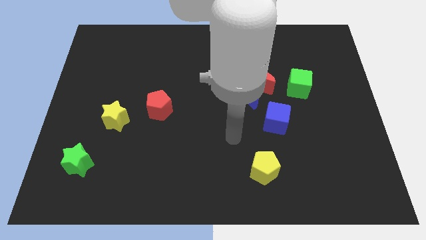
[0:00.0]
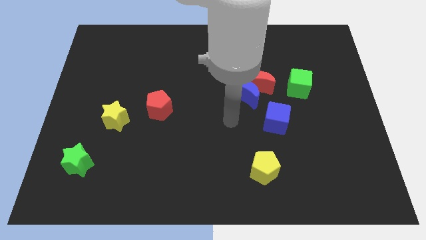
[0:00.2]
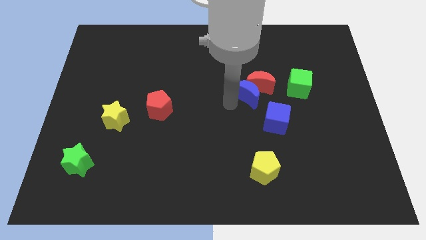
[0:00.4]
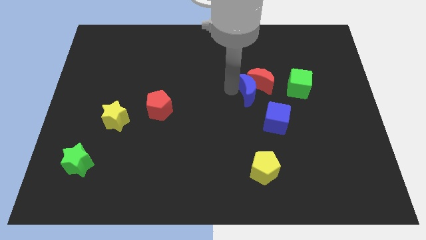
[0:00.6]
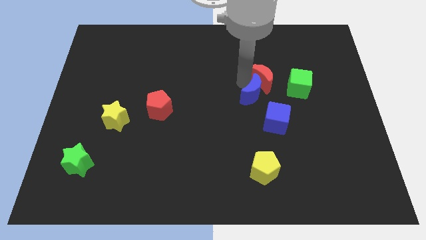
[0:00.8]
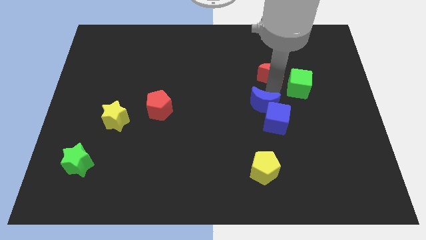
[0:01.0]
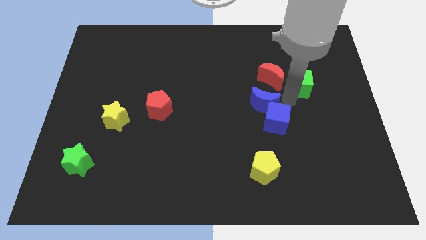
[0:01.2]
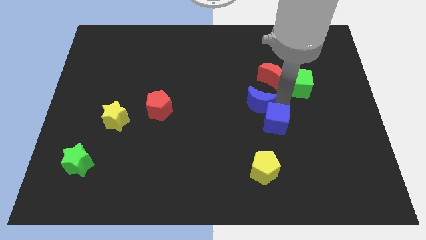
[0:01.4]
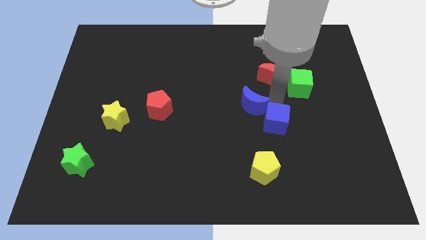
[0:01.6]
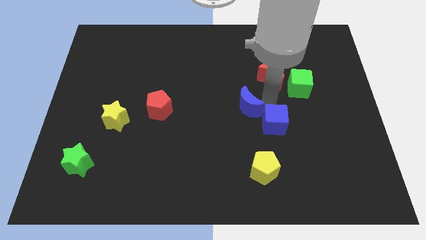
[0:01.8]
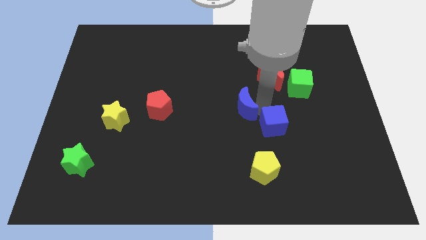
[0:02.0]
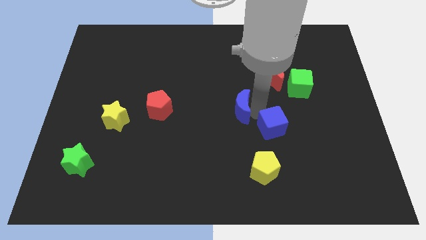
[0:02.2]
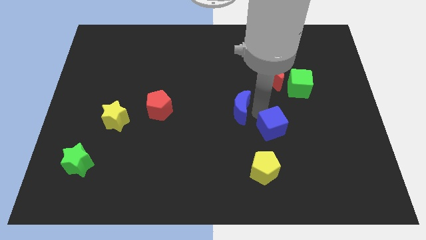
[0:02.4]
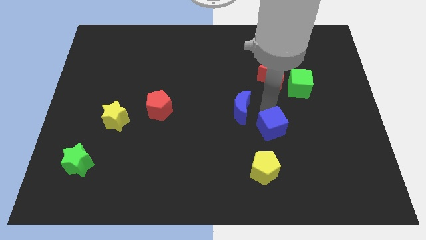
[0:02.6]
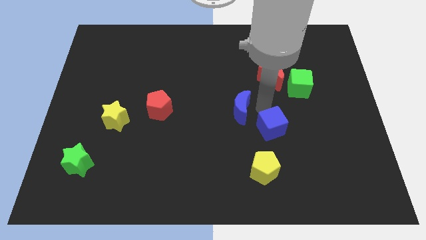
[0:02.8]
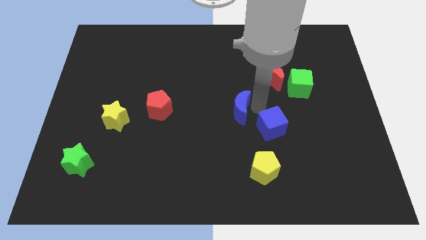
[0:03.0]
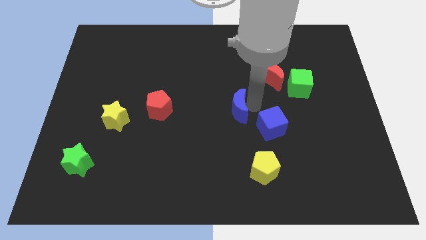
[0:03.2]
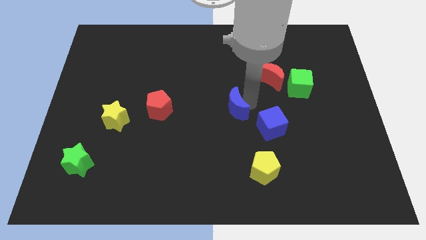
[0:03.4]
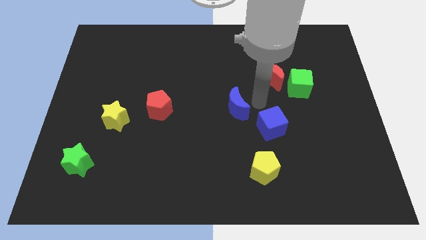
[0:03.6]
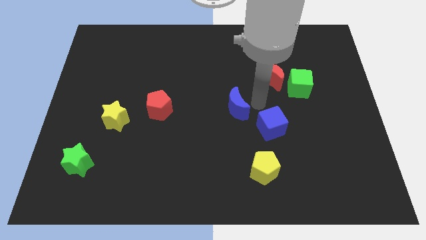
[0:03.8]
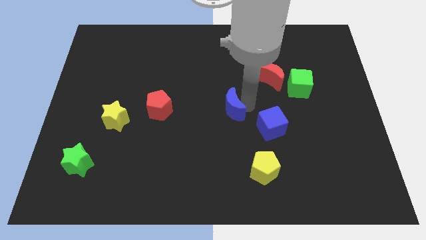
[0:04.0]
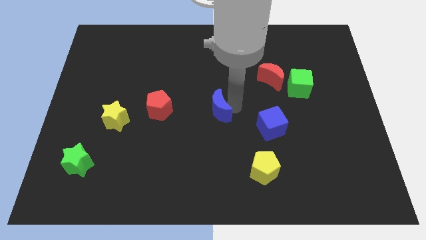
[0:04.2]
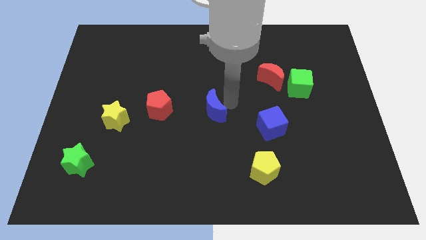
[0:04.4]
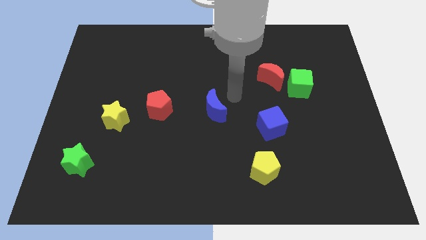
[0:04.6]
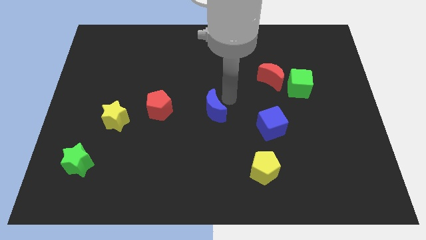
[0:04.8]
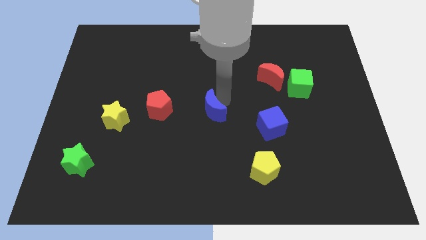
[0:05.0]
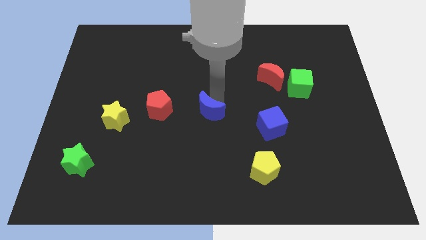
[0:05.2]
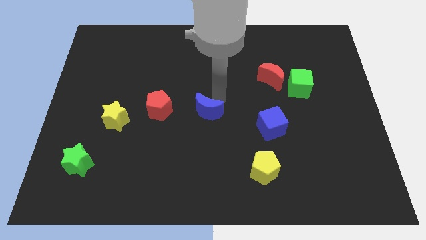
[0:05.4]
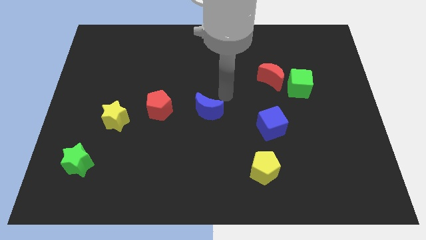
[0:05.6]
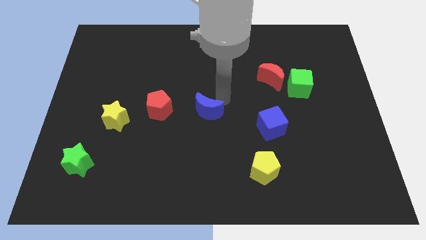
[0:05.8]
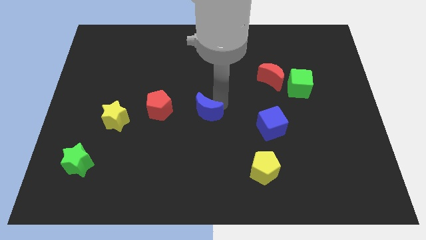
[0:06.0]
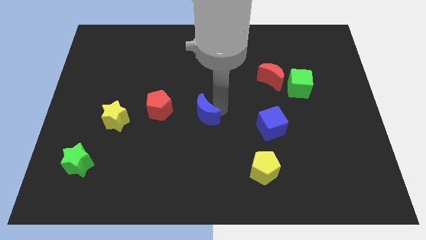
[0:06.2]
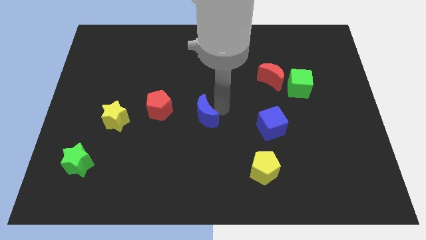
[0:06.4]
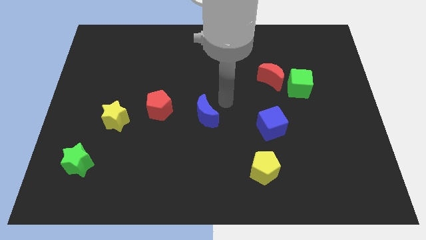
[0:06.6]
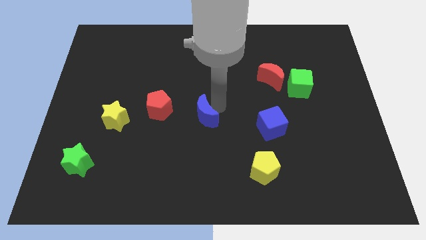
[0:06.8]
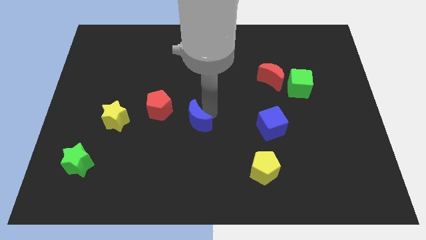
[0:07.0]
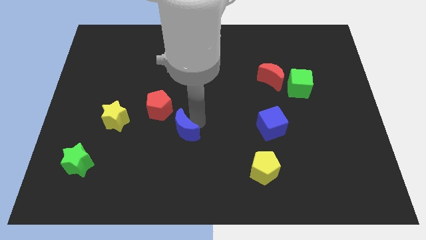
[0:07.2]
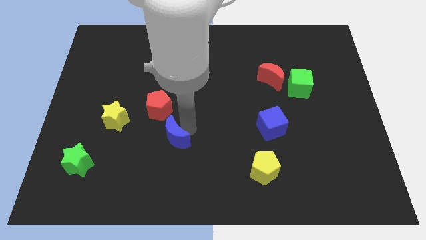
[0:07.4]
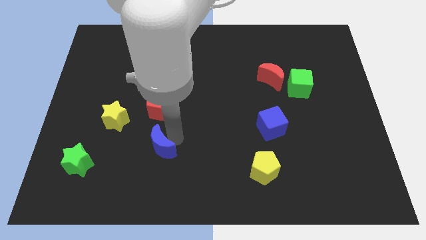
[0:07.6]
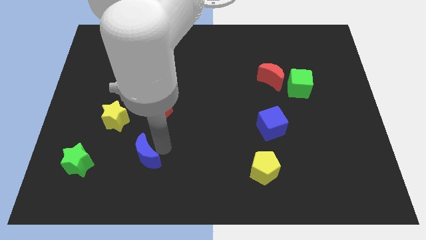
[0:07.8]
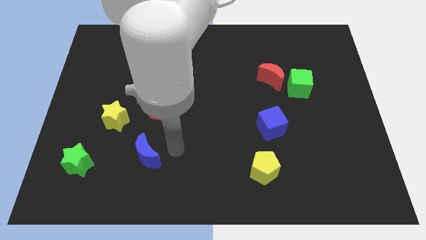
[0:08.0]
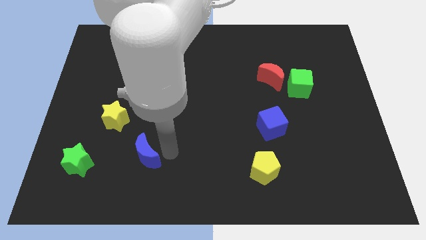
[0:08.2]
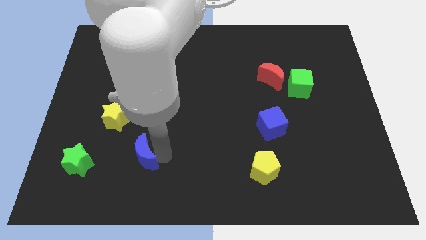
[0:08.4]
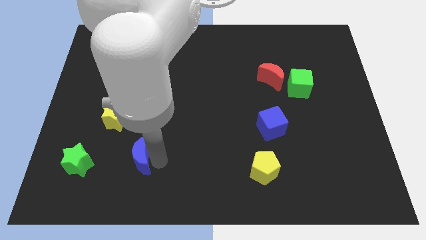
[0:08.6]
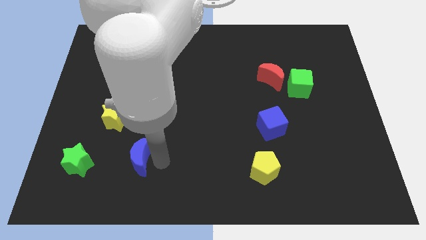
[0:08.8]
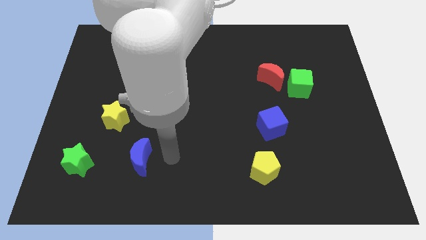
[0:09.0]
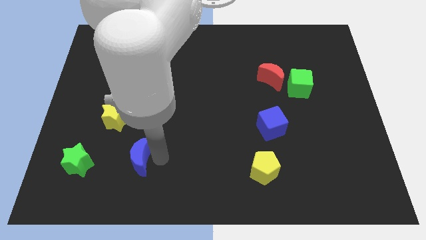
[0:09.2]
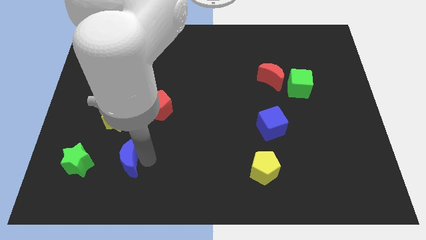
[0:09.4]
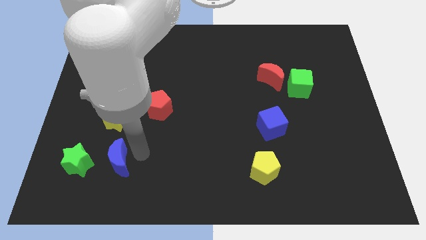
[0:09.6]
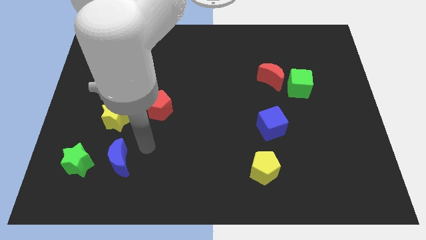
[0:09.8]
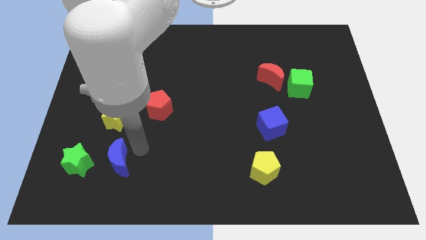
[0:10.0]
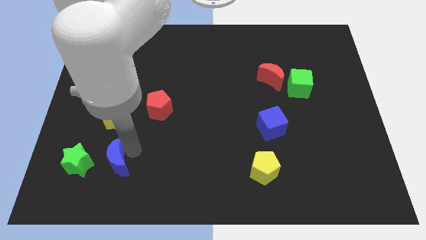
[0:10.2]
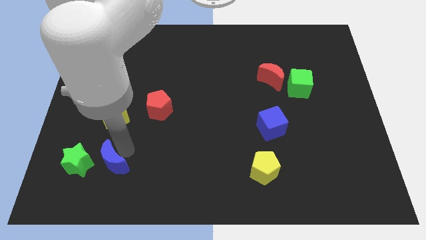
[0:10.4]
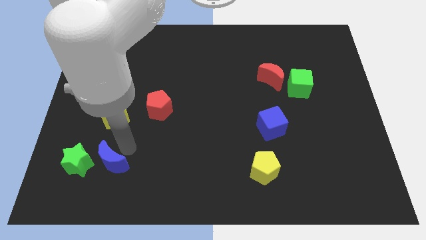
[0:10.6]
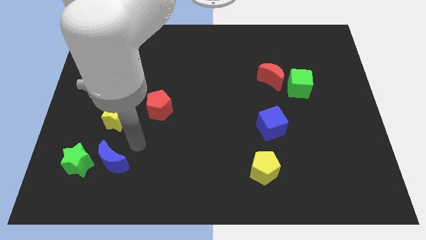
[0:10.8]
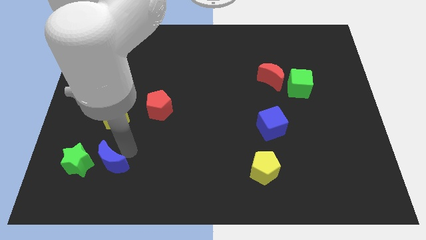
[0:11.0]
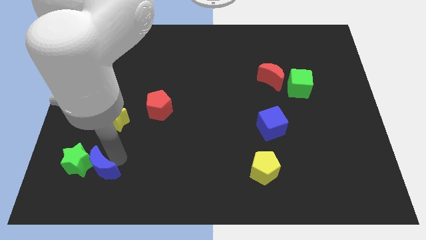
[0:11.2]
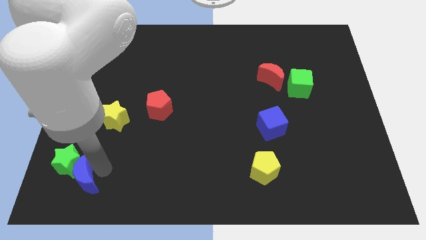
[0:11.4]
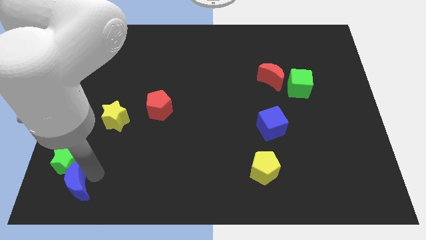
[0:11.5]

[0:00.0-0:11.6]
slide the blue moon to the bottom left corner

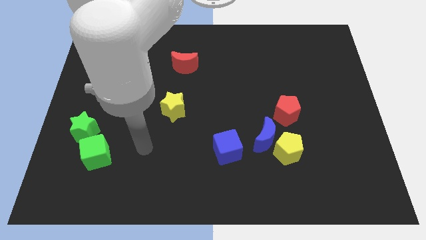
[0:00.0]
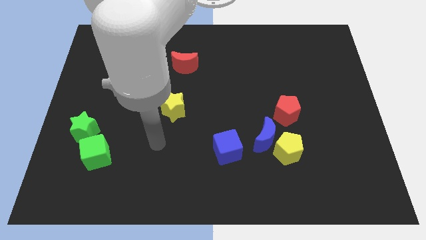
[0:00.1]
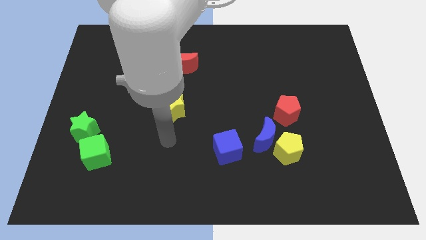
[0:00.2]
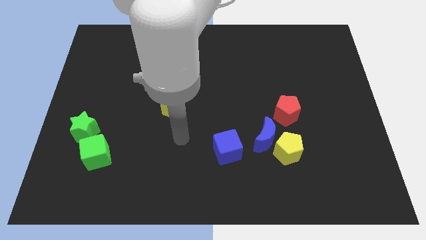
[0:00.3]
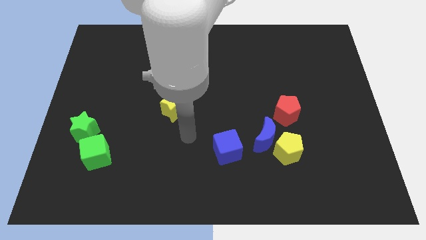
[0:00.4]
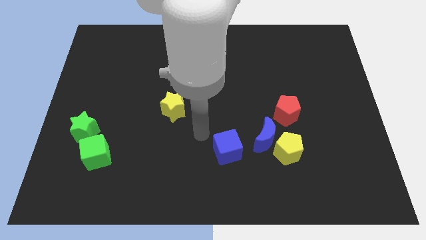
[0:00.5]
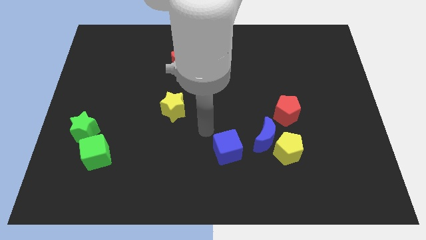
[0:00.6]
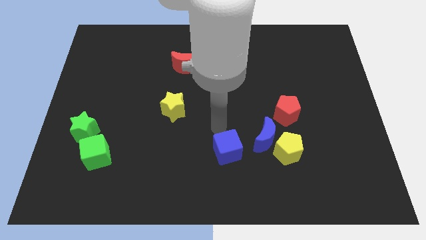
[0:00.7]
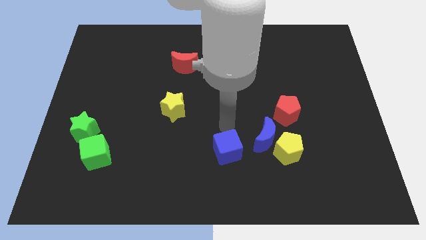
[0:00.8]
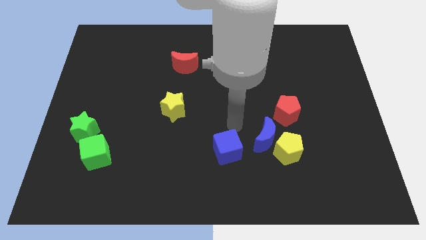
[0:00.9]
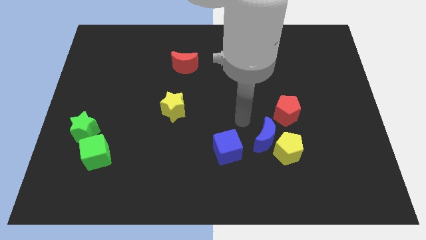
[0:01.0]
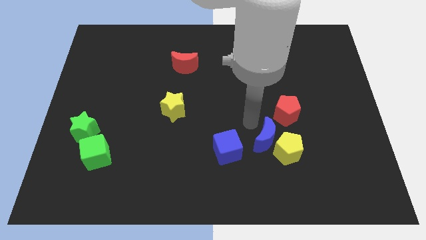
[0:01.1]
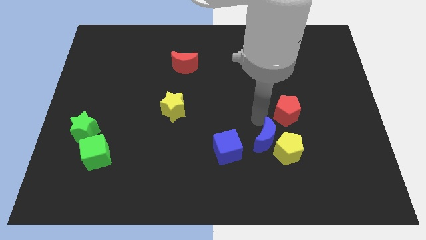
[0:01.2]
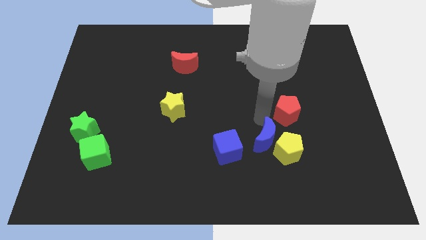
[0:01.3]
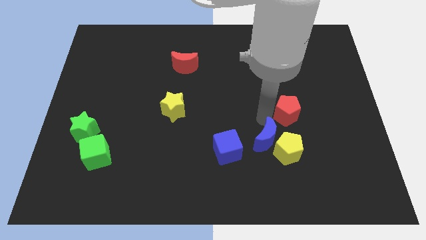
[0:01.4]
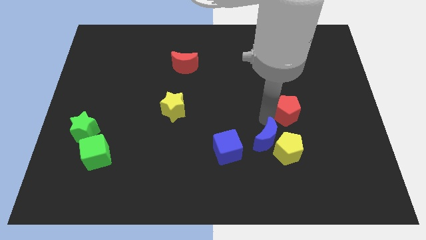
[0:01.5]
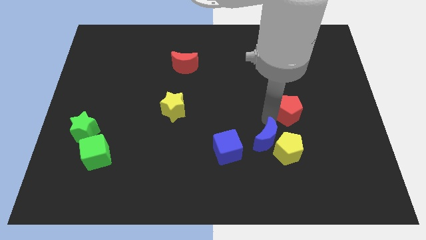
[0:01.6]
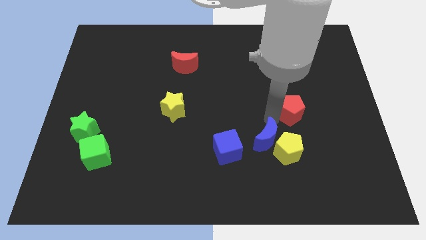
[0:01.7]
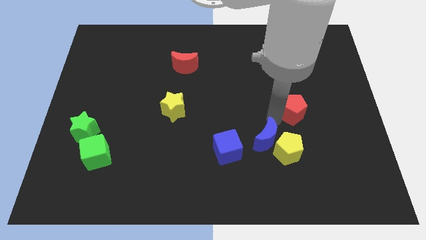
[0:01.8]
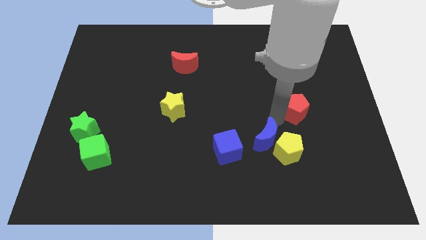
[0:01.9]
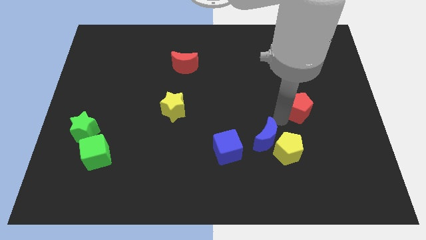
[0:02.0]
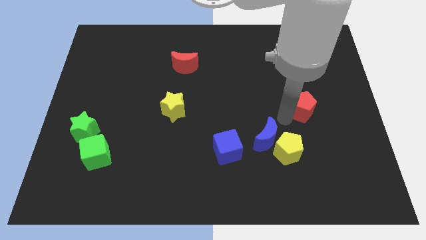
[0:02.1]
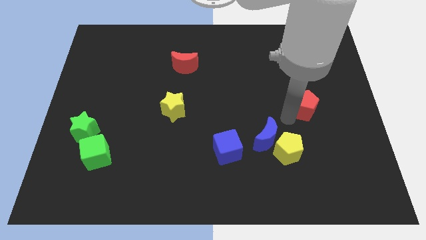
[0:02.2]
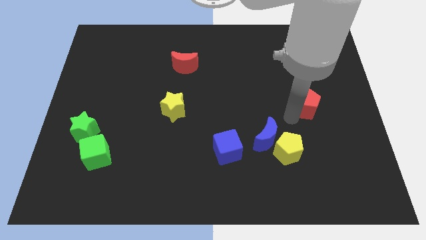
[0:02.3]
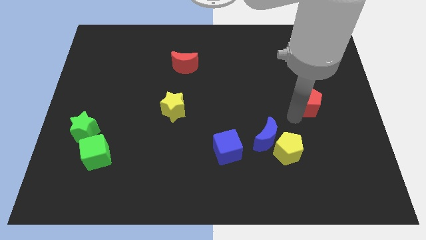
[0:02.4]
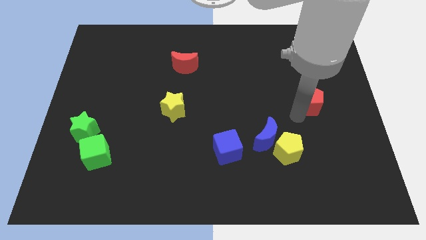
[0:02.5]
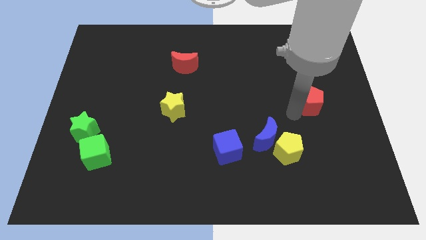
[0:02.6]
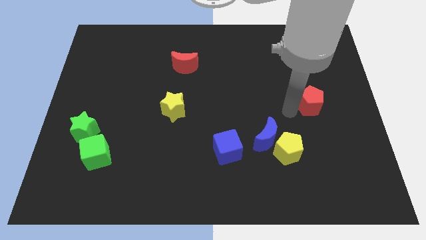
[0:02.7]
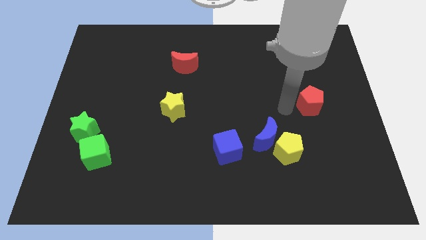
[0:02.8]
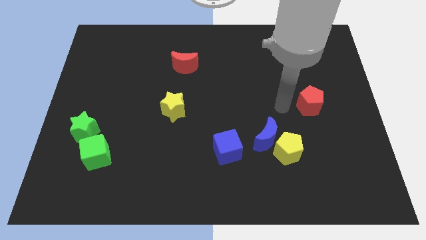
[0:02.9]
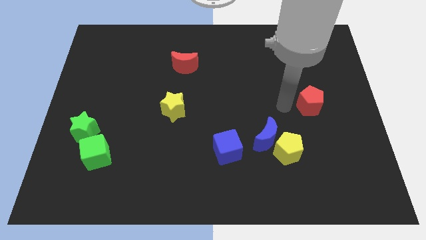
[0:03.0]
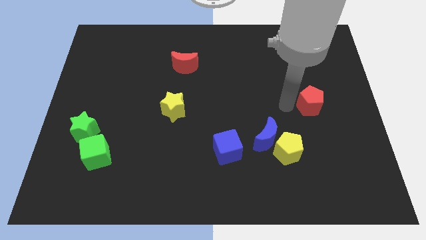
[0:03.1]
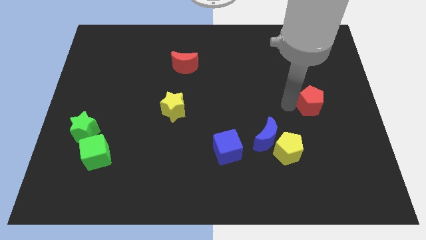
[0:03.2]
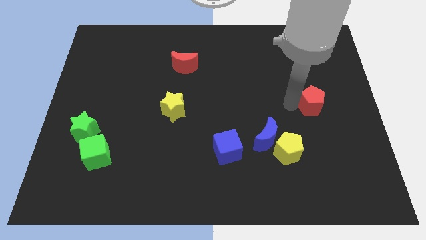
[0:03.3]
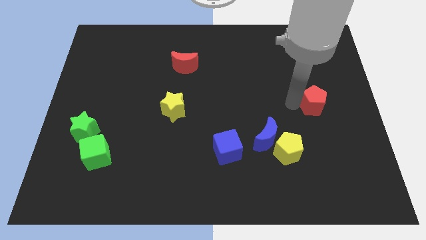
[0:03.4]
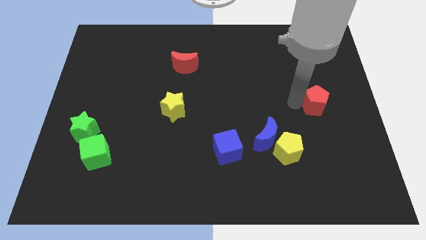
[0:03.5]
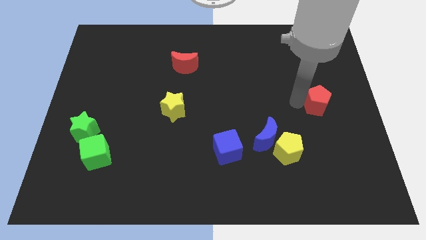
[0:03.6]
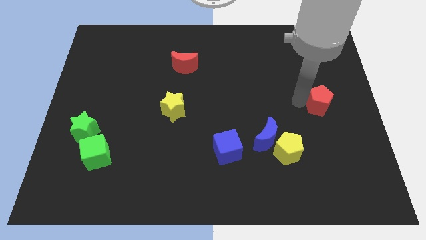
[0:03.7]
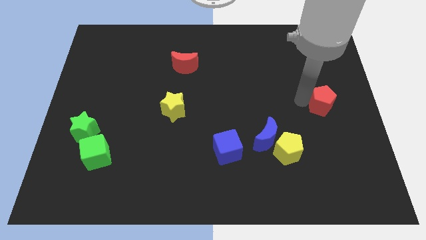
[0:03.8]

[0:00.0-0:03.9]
slide the red pentagon to the right side
